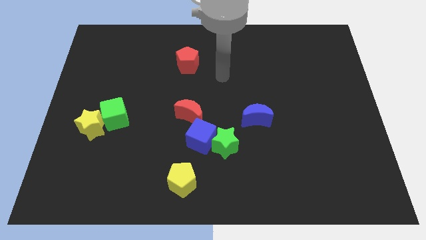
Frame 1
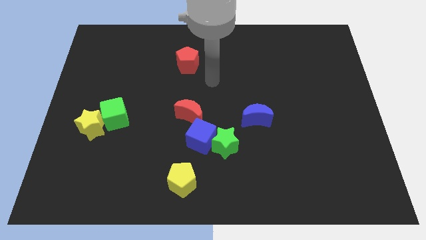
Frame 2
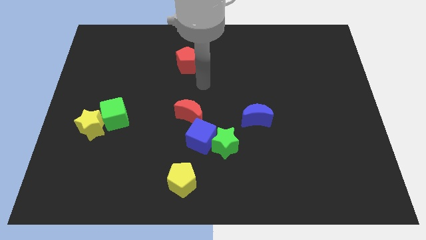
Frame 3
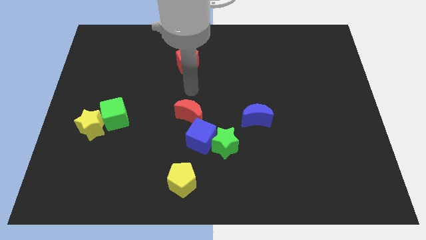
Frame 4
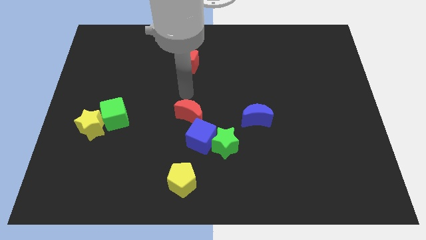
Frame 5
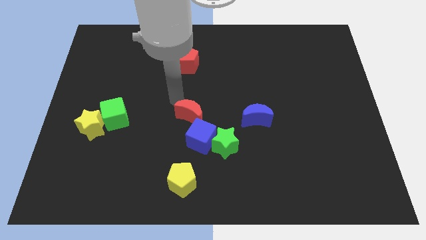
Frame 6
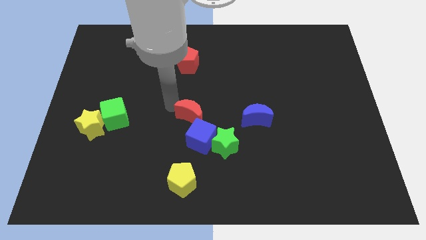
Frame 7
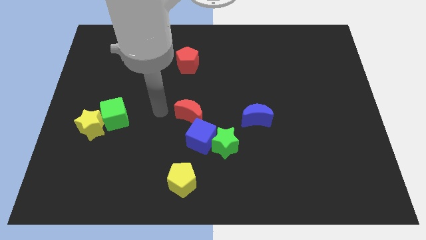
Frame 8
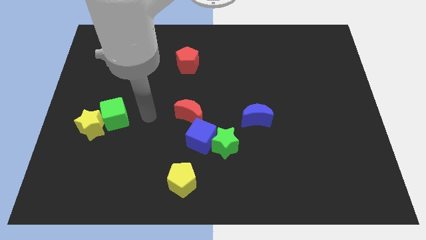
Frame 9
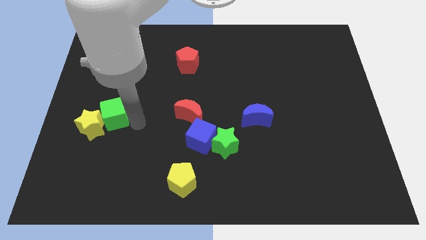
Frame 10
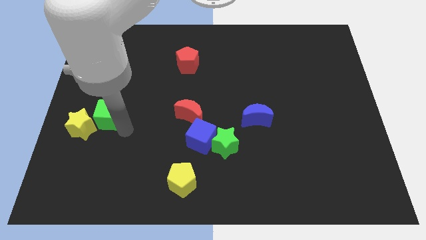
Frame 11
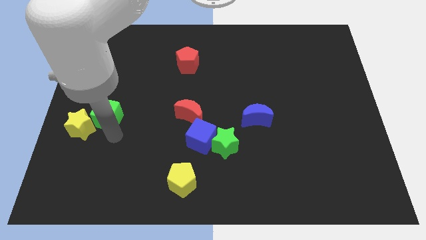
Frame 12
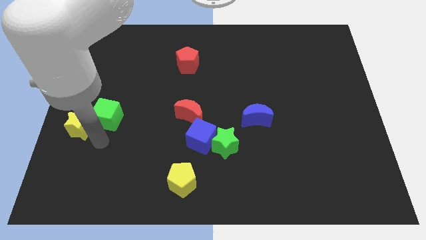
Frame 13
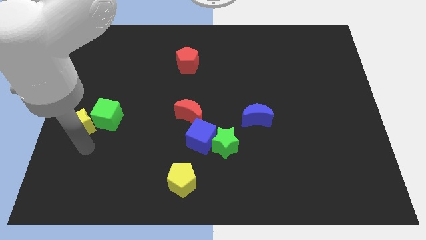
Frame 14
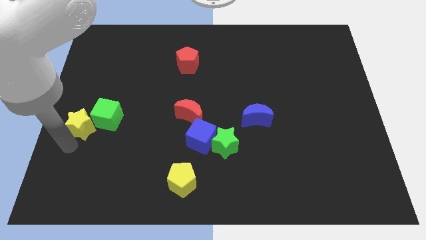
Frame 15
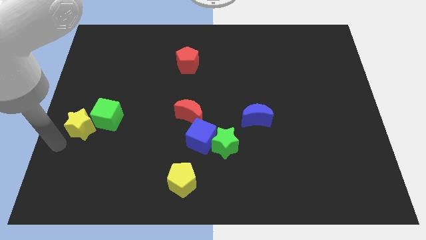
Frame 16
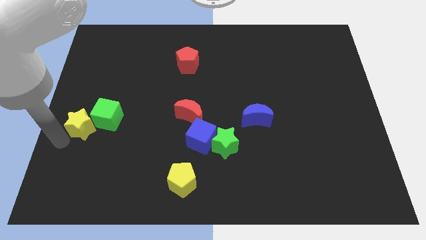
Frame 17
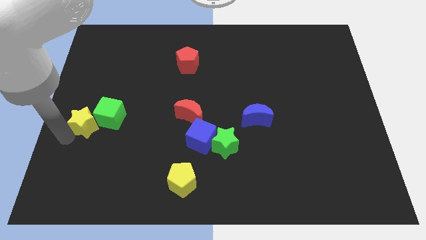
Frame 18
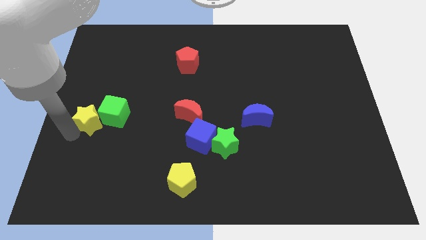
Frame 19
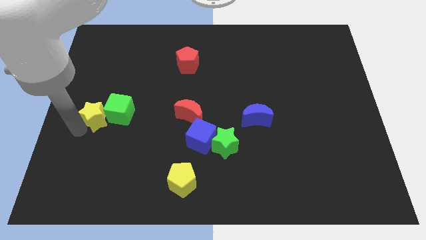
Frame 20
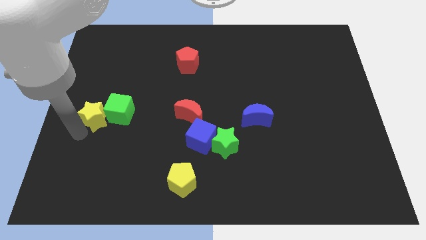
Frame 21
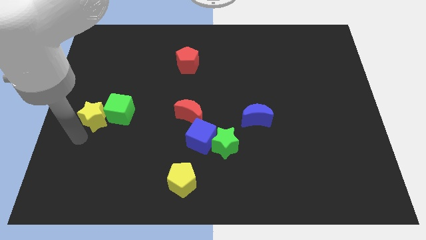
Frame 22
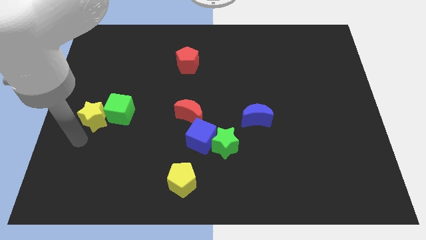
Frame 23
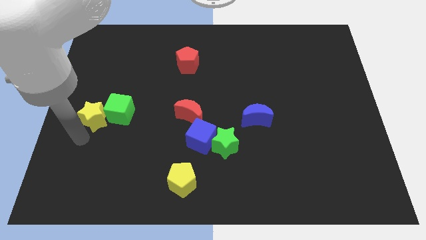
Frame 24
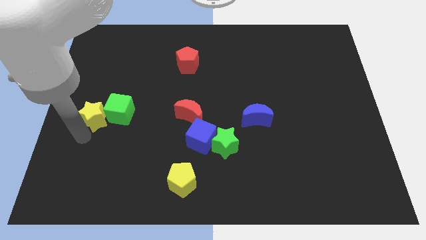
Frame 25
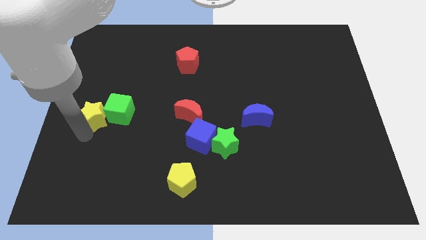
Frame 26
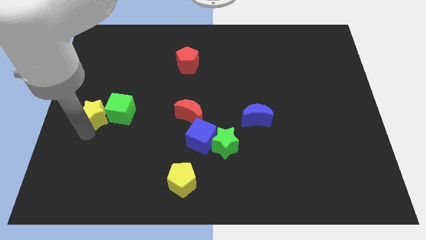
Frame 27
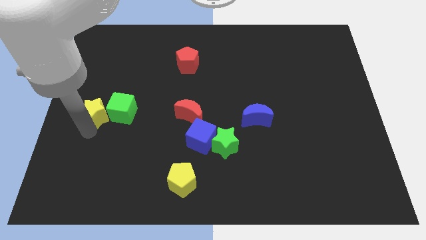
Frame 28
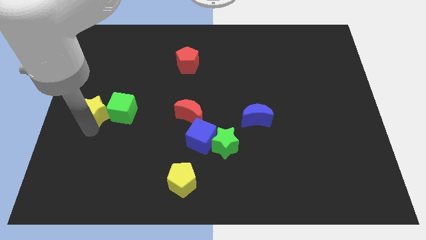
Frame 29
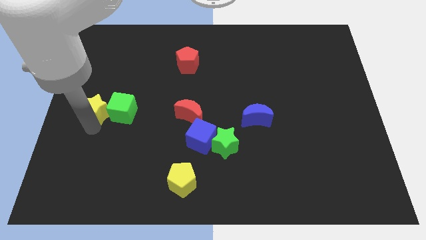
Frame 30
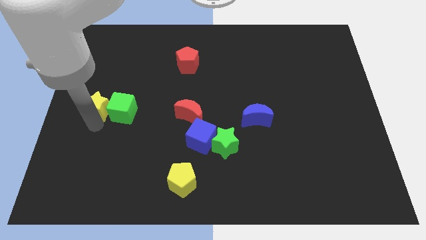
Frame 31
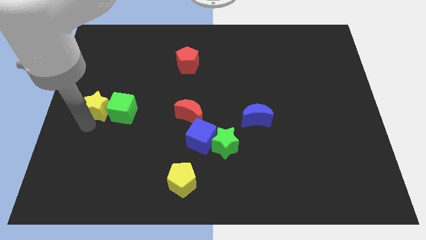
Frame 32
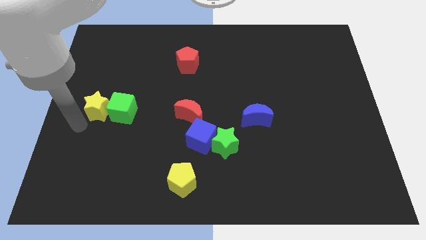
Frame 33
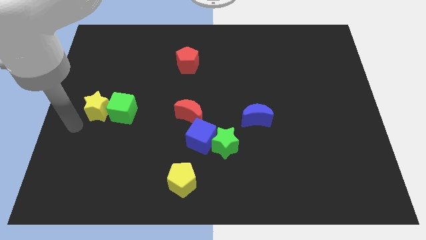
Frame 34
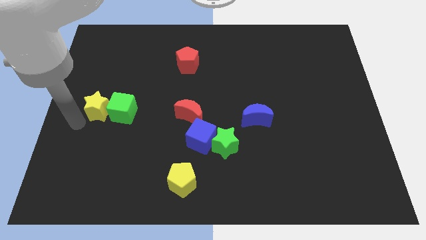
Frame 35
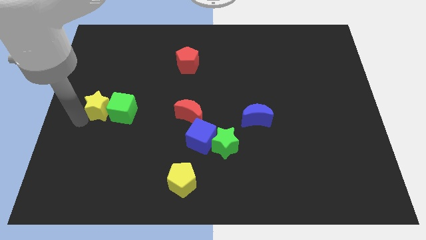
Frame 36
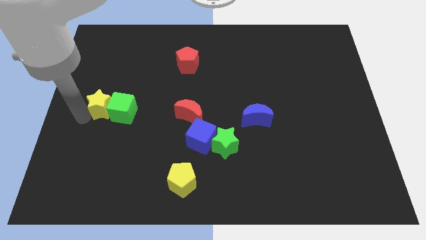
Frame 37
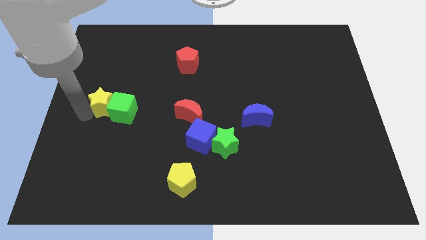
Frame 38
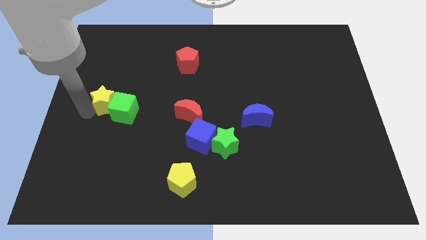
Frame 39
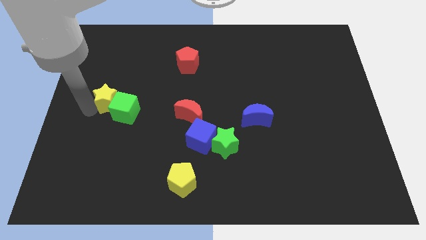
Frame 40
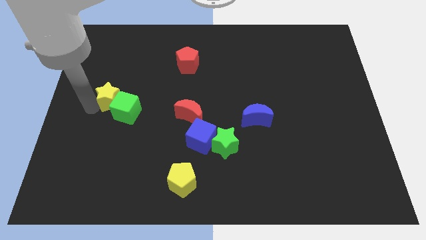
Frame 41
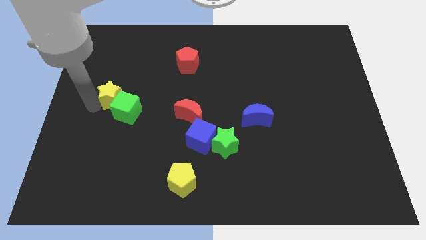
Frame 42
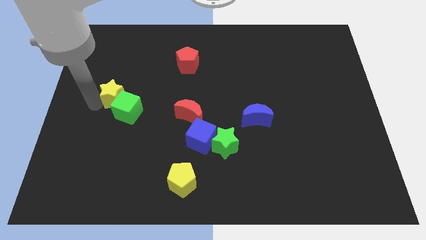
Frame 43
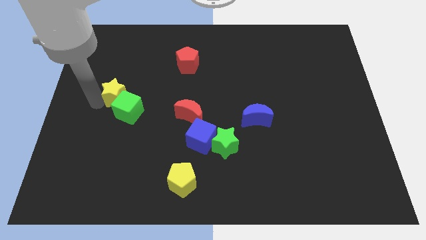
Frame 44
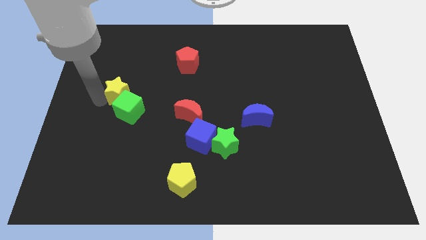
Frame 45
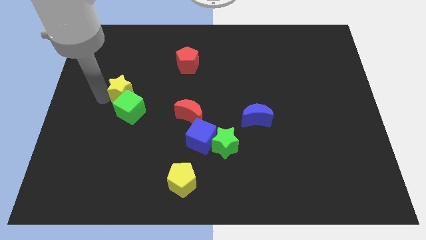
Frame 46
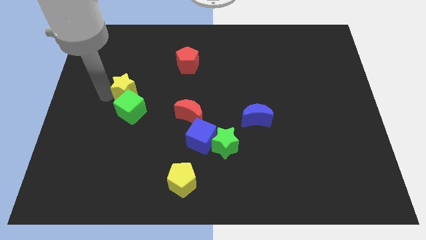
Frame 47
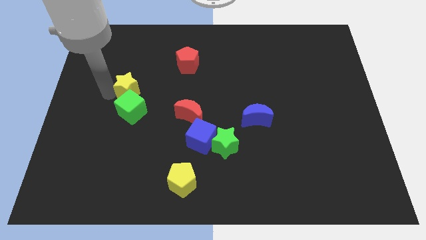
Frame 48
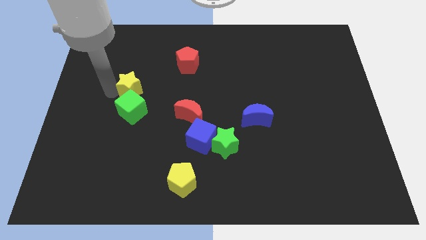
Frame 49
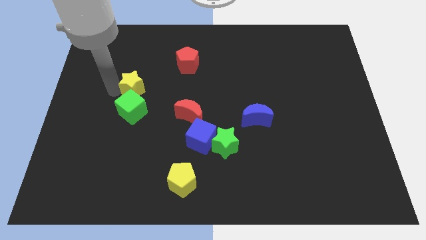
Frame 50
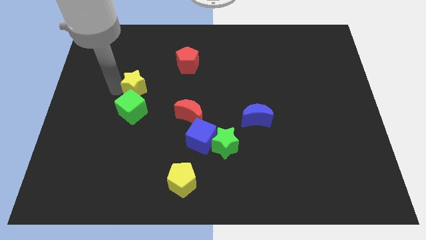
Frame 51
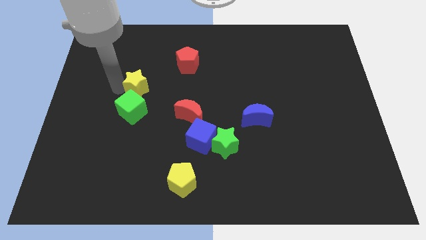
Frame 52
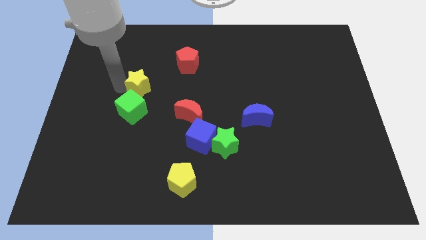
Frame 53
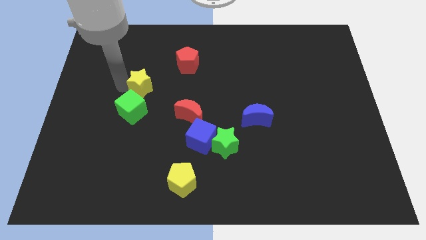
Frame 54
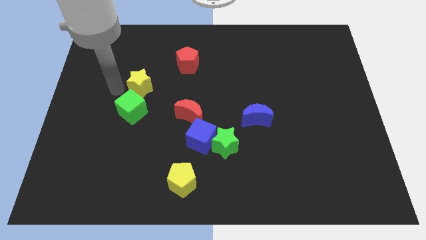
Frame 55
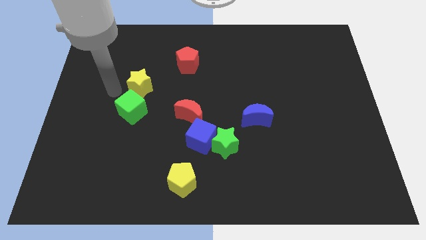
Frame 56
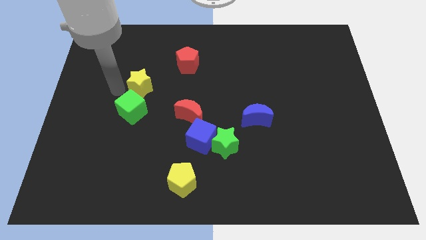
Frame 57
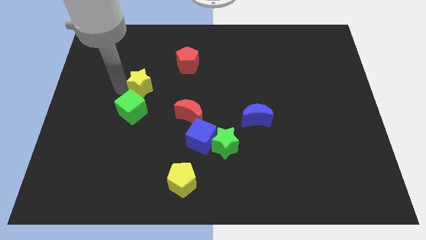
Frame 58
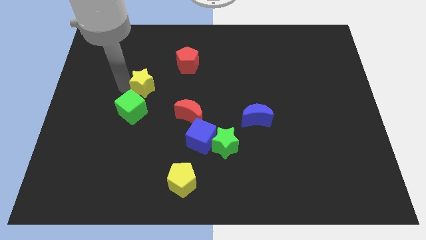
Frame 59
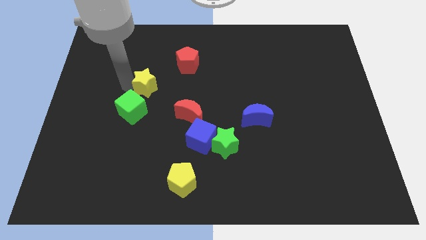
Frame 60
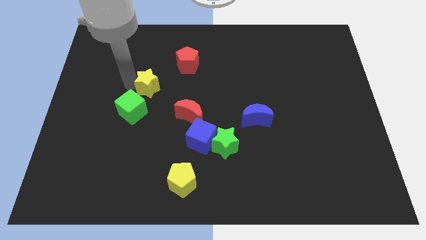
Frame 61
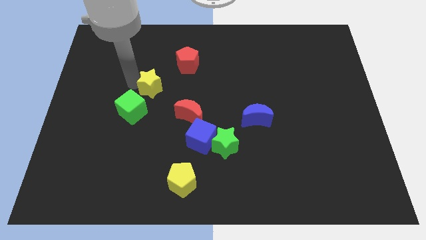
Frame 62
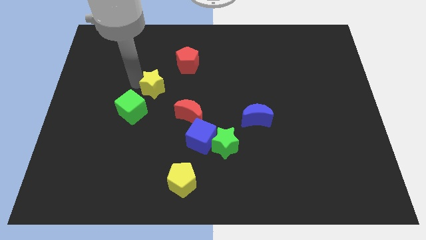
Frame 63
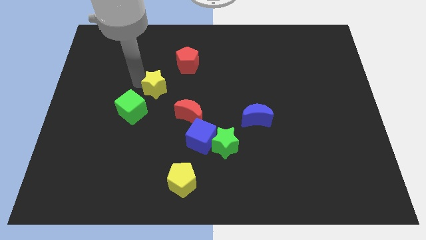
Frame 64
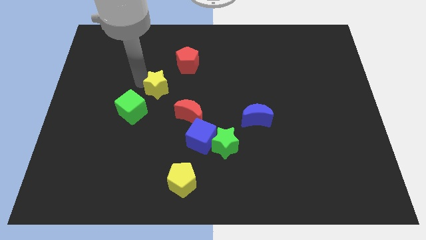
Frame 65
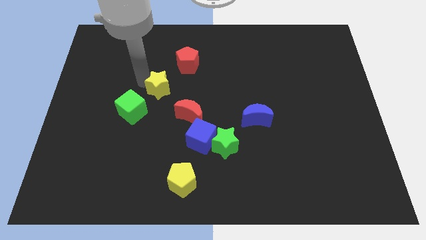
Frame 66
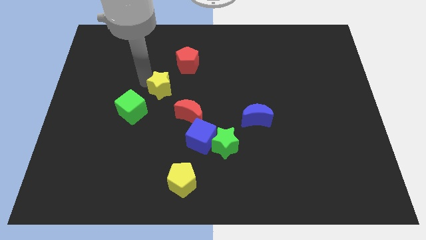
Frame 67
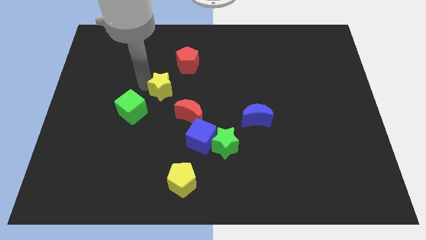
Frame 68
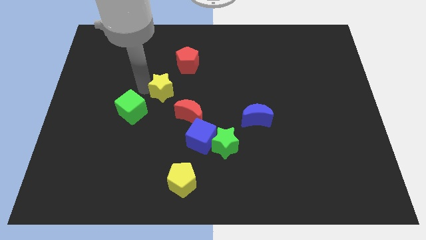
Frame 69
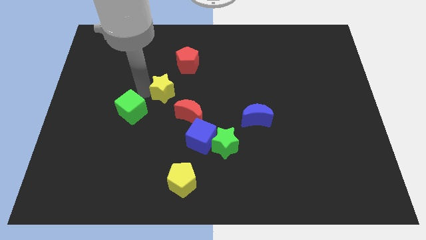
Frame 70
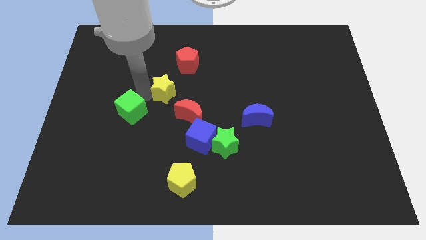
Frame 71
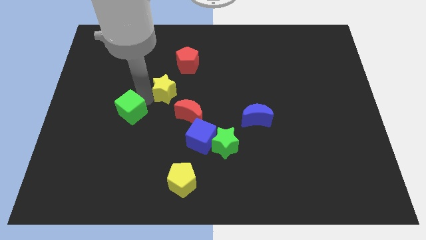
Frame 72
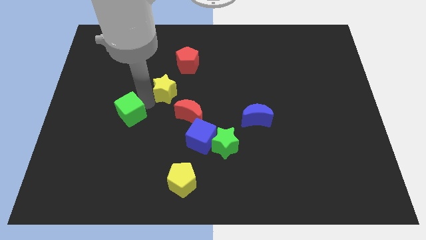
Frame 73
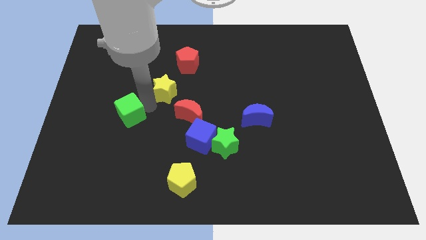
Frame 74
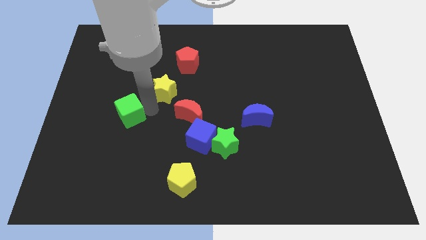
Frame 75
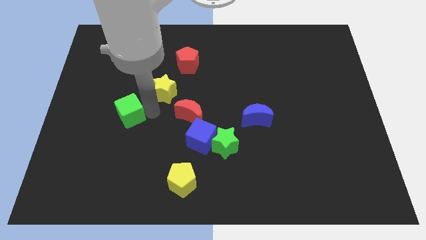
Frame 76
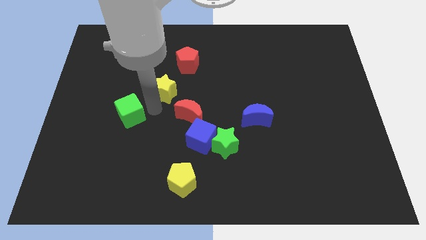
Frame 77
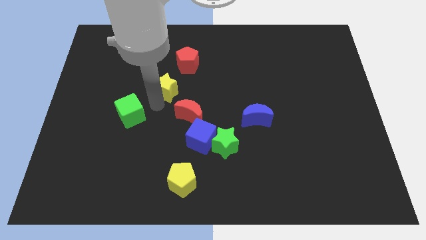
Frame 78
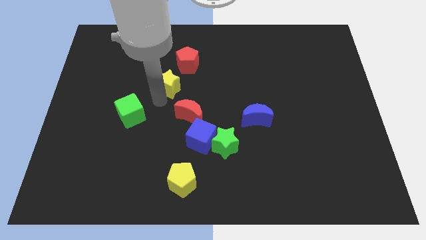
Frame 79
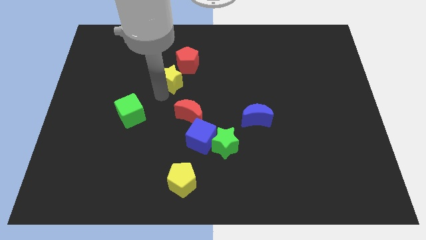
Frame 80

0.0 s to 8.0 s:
move the yellow star upwards and to the right diagonally

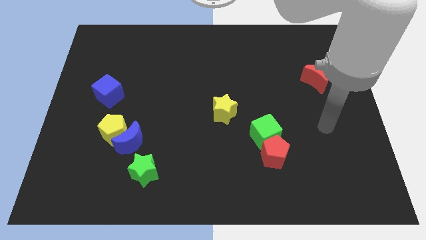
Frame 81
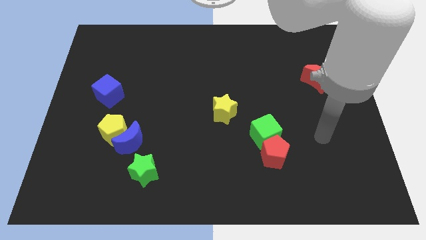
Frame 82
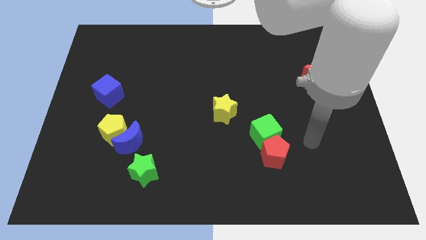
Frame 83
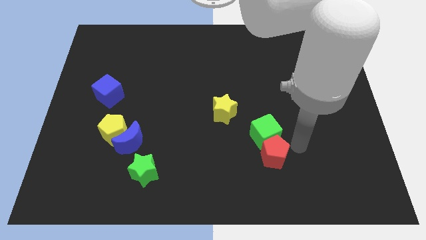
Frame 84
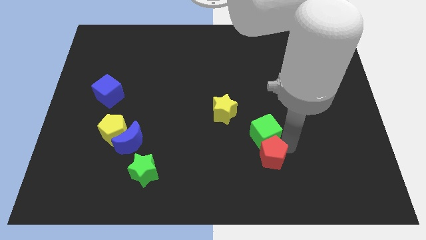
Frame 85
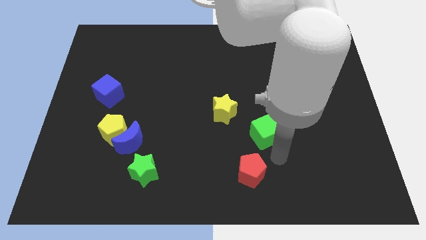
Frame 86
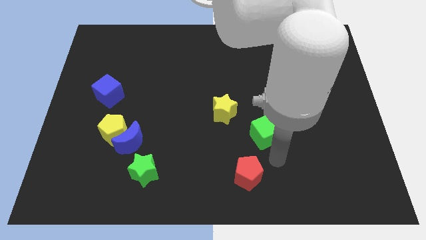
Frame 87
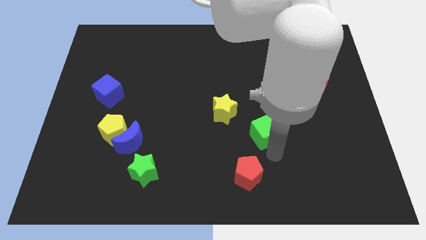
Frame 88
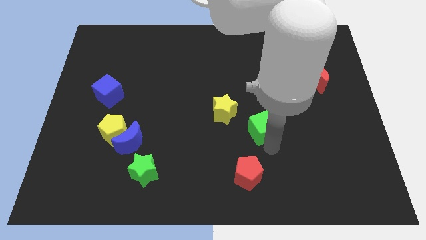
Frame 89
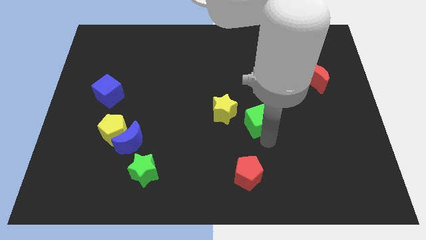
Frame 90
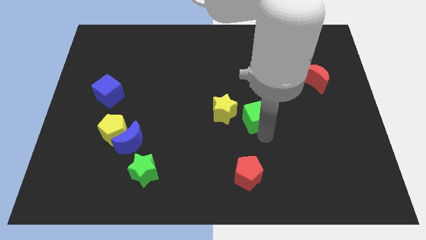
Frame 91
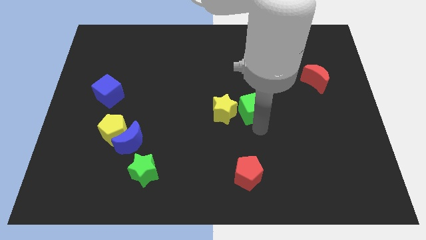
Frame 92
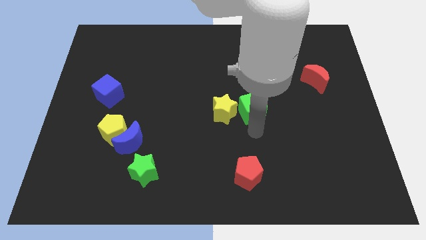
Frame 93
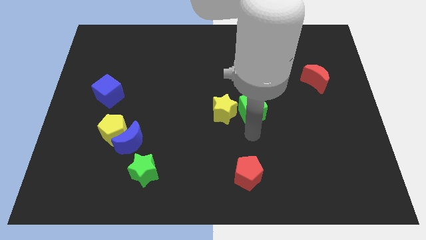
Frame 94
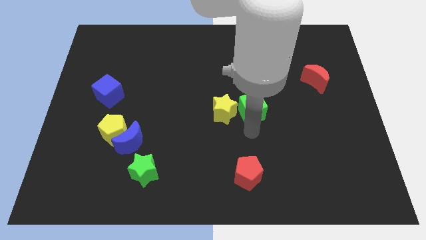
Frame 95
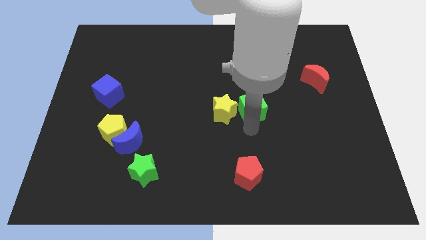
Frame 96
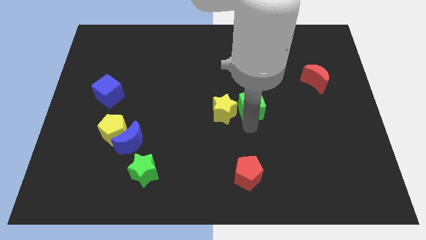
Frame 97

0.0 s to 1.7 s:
push the green cube up a little
